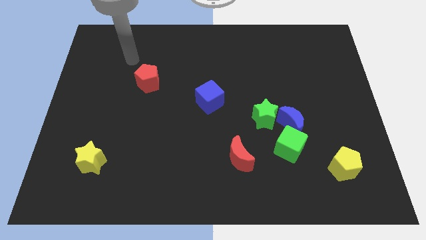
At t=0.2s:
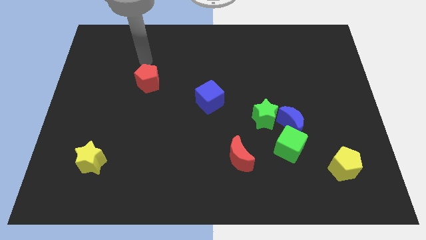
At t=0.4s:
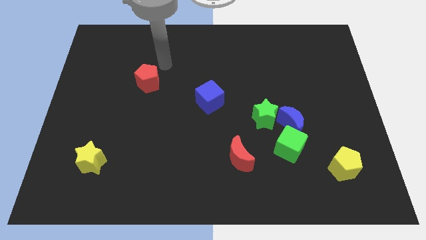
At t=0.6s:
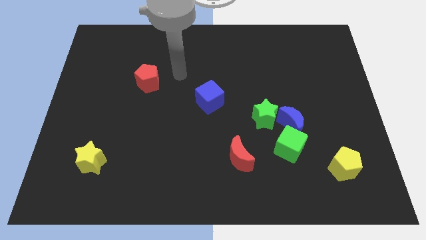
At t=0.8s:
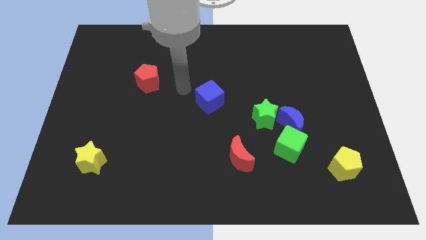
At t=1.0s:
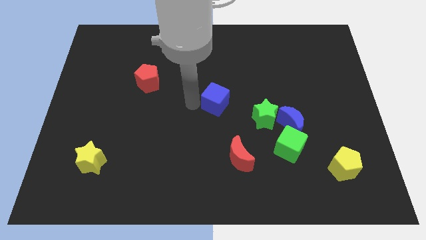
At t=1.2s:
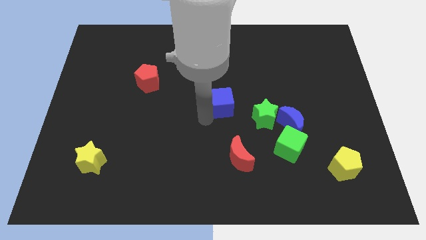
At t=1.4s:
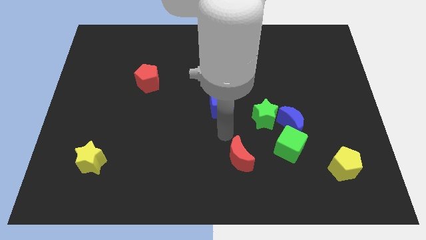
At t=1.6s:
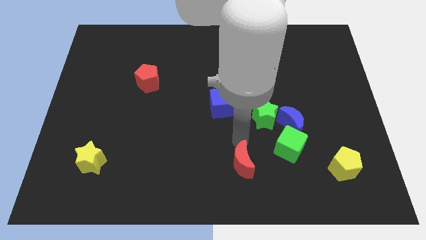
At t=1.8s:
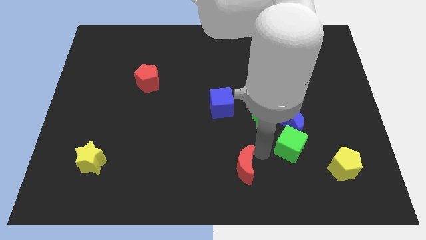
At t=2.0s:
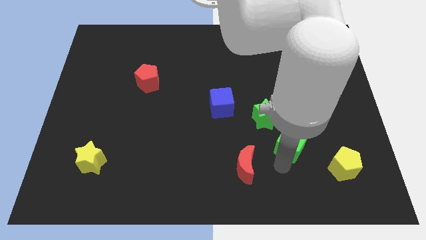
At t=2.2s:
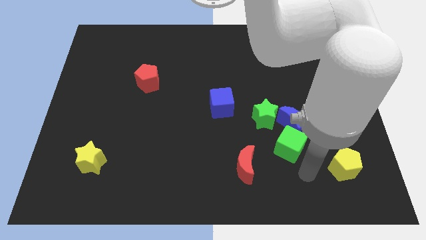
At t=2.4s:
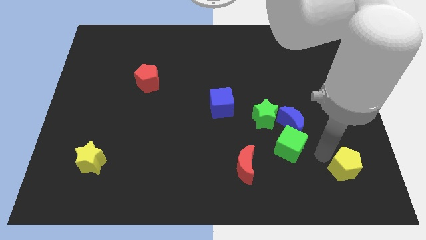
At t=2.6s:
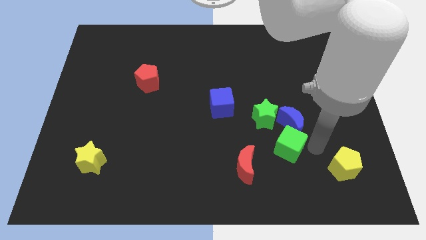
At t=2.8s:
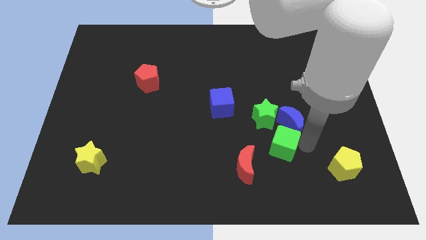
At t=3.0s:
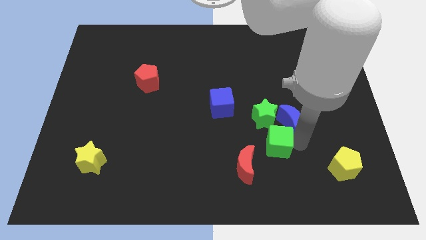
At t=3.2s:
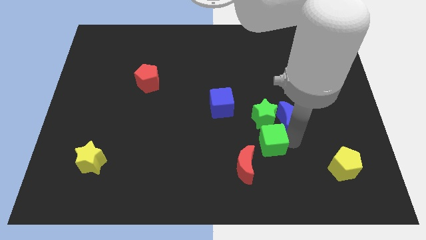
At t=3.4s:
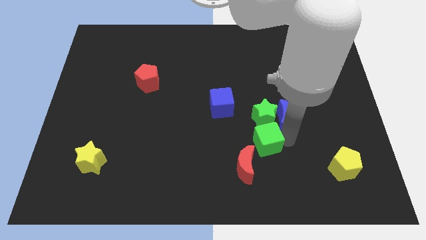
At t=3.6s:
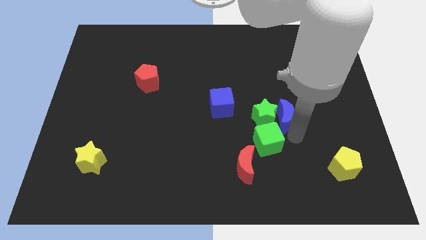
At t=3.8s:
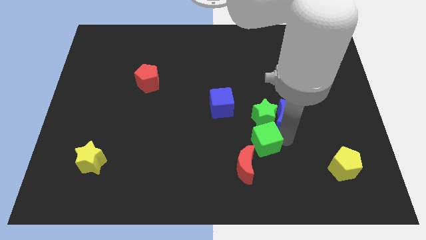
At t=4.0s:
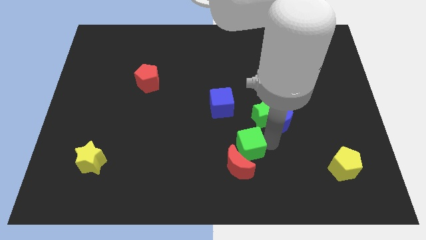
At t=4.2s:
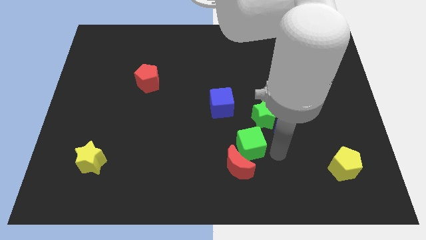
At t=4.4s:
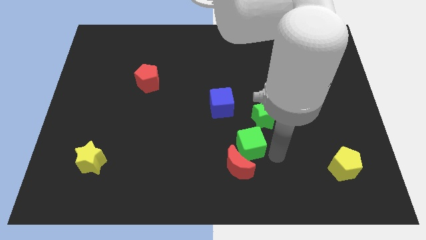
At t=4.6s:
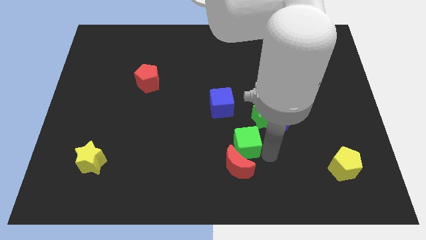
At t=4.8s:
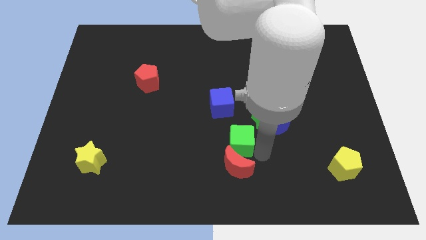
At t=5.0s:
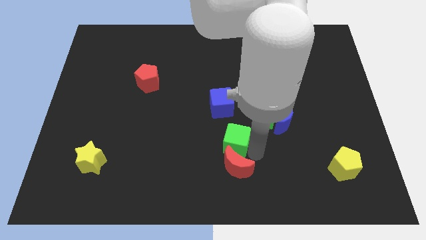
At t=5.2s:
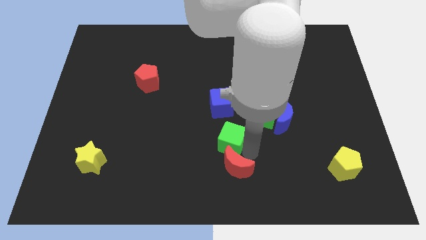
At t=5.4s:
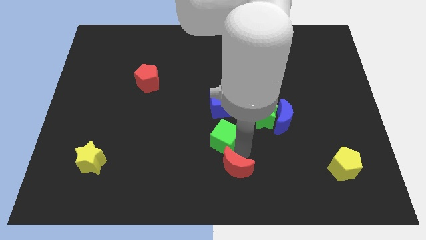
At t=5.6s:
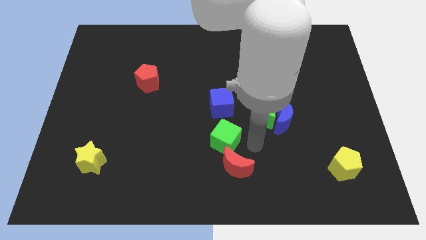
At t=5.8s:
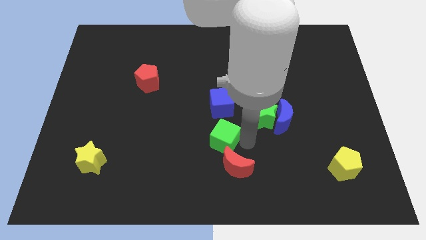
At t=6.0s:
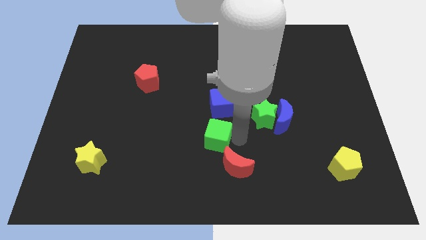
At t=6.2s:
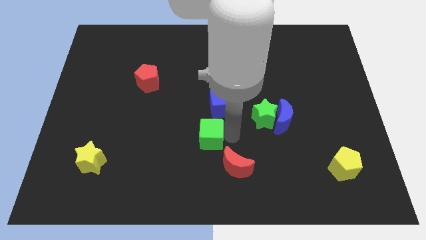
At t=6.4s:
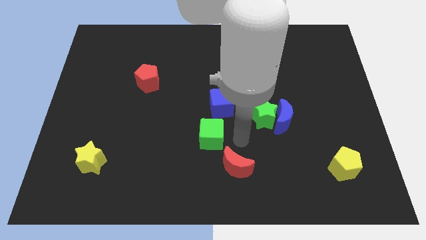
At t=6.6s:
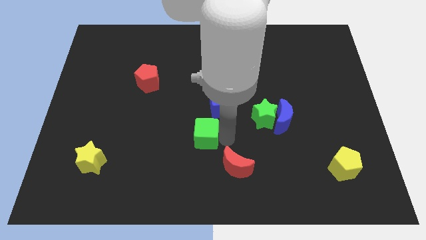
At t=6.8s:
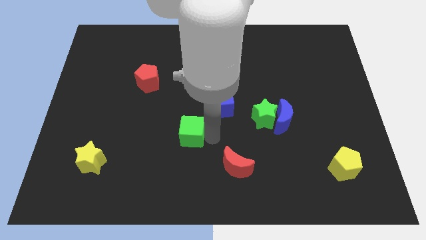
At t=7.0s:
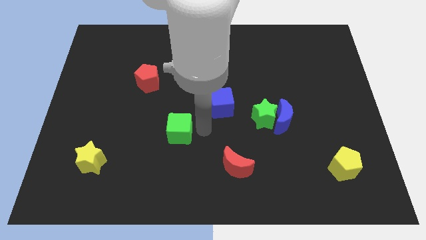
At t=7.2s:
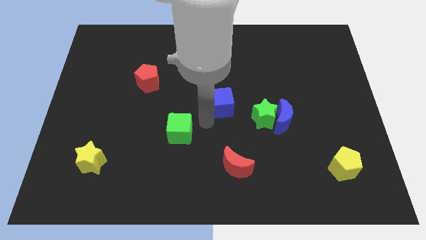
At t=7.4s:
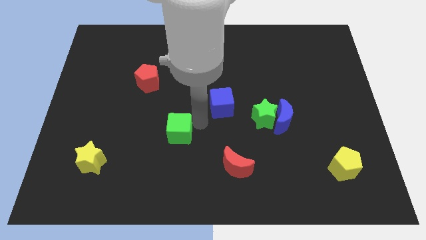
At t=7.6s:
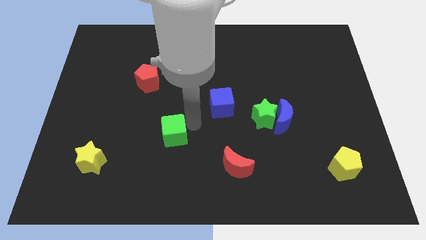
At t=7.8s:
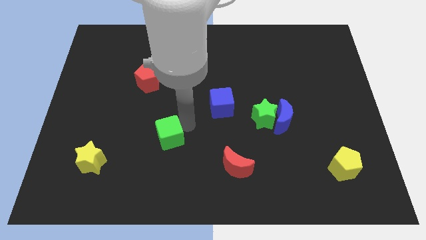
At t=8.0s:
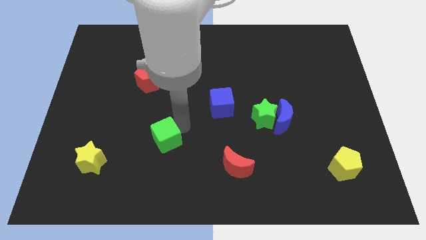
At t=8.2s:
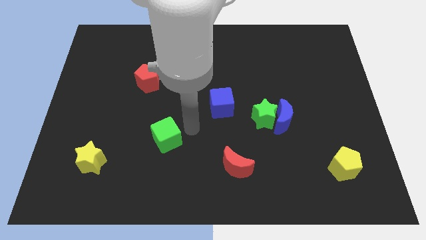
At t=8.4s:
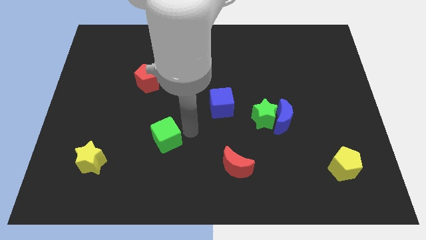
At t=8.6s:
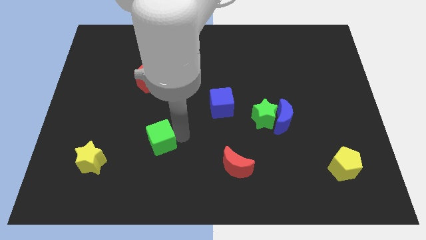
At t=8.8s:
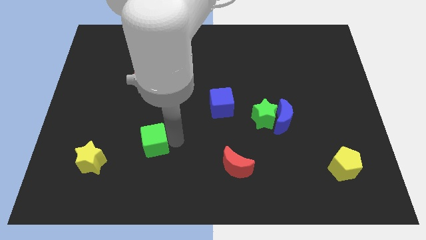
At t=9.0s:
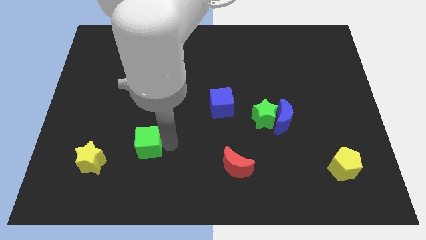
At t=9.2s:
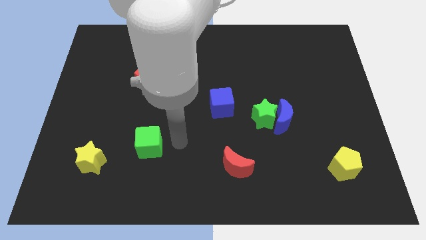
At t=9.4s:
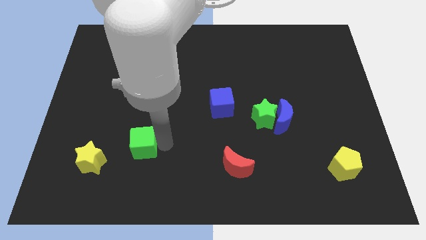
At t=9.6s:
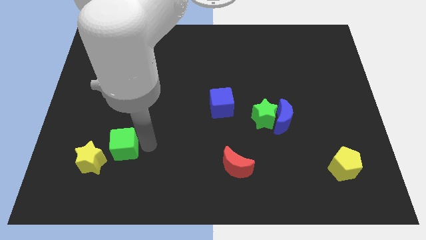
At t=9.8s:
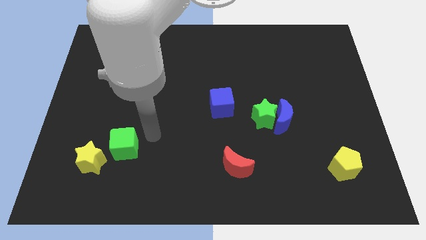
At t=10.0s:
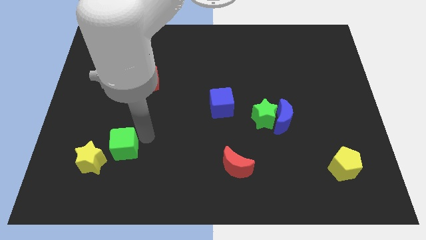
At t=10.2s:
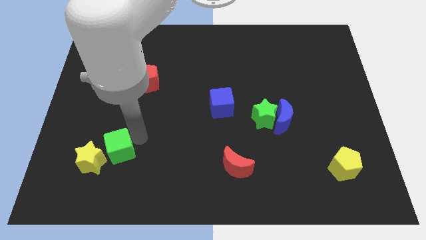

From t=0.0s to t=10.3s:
slide the green cube towards the yellow star

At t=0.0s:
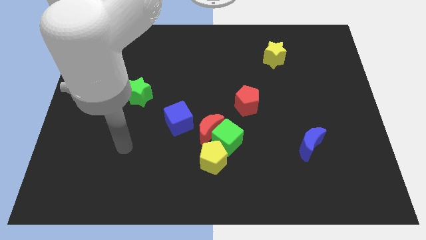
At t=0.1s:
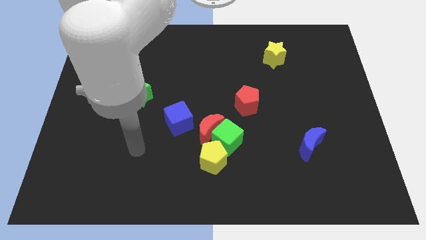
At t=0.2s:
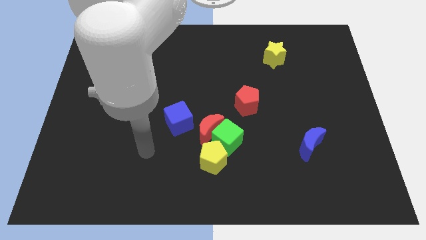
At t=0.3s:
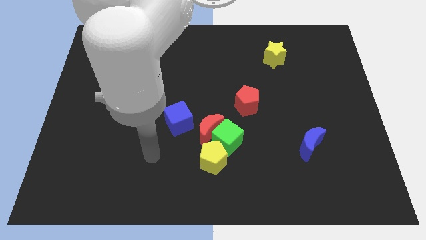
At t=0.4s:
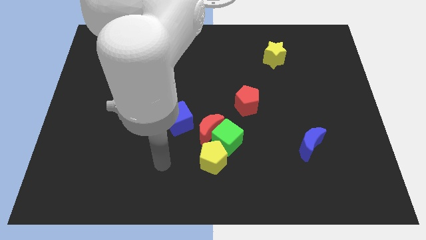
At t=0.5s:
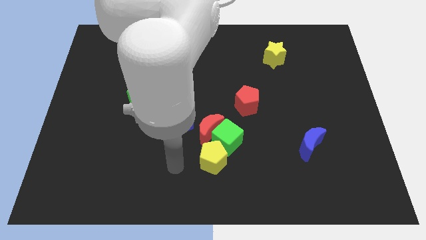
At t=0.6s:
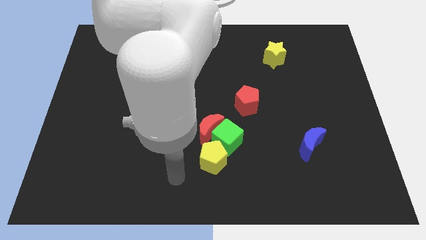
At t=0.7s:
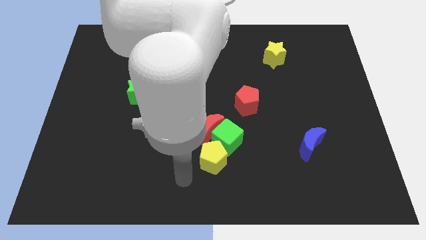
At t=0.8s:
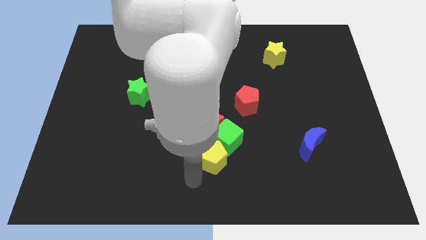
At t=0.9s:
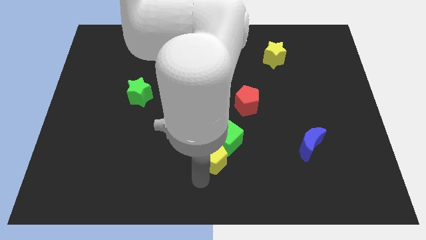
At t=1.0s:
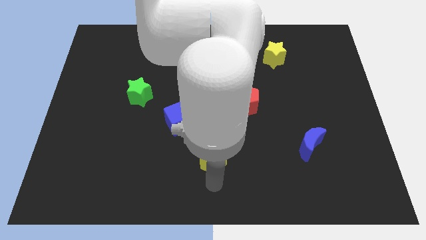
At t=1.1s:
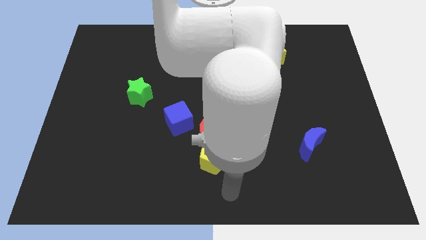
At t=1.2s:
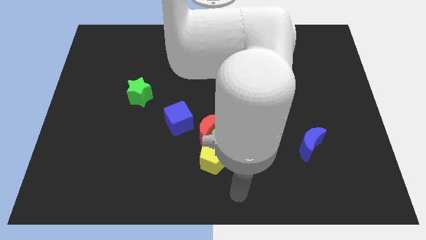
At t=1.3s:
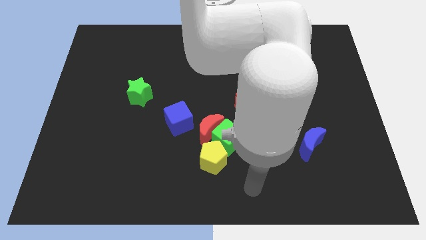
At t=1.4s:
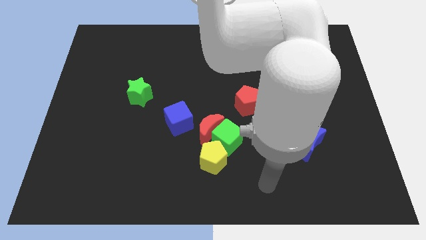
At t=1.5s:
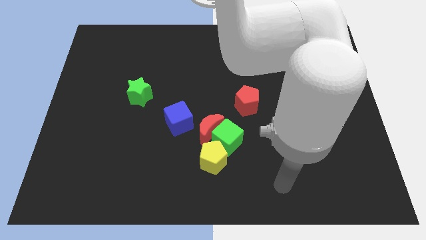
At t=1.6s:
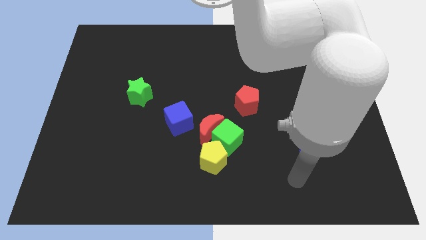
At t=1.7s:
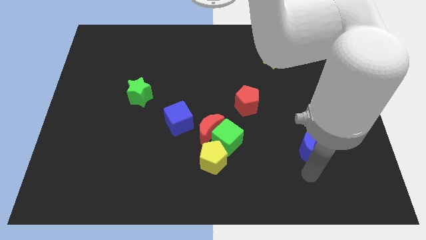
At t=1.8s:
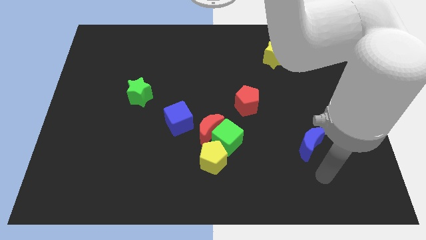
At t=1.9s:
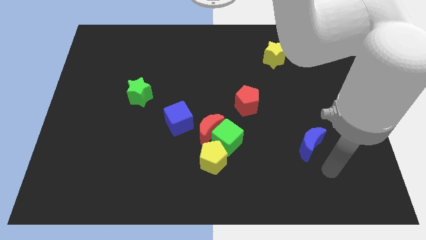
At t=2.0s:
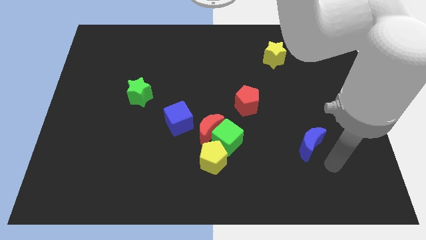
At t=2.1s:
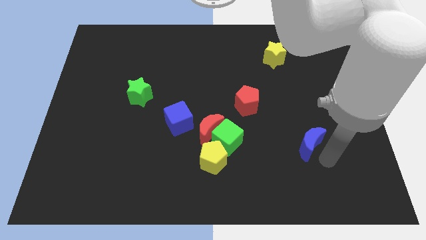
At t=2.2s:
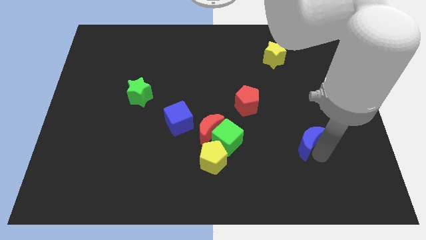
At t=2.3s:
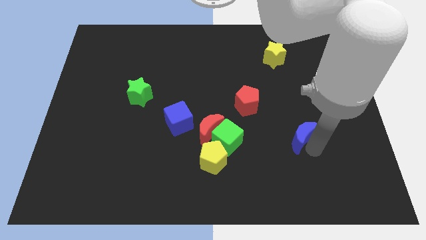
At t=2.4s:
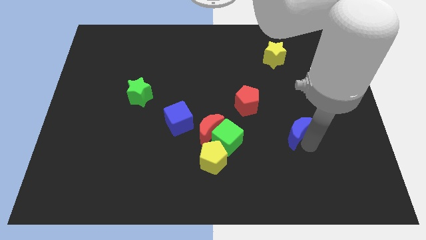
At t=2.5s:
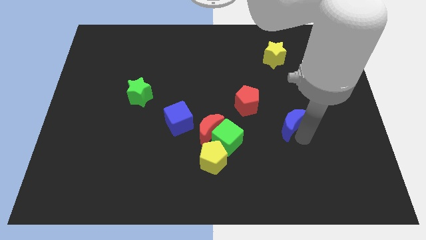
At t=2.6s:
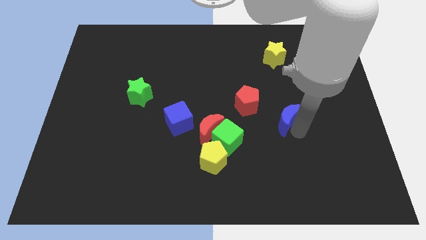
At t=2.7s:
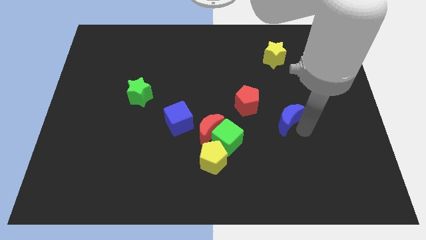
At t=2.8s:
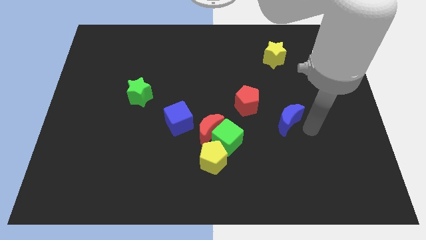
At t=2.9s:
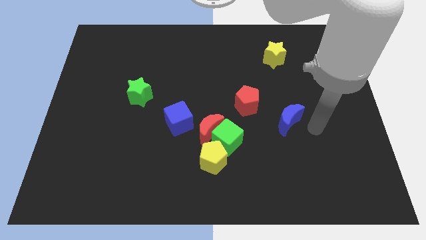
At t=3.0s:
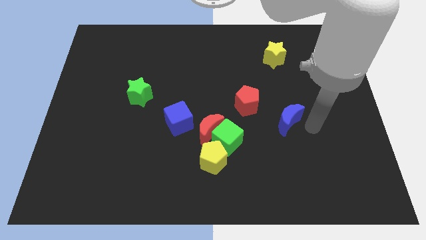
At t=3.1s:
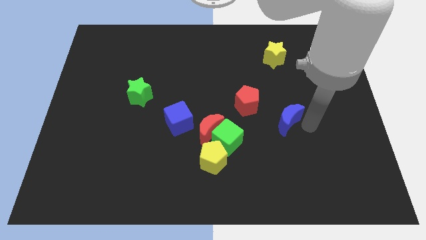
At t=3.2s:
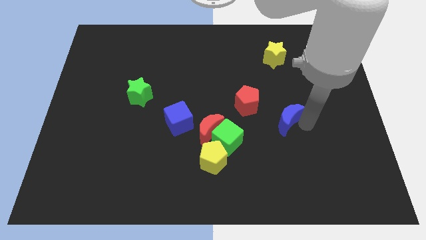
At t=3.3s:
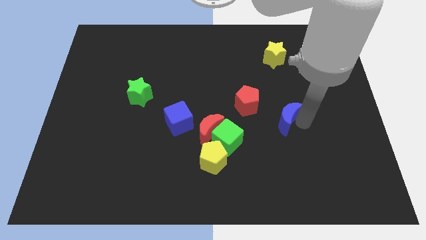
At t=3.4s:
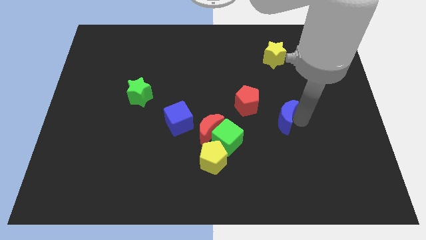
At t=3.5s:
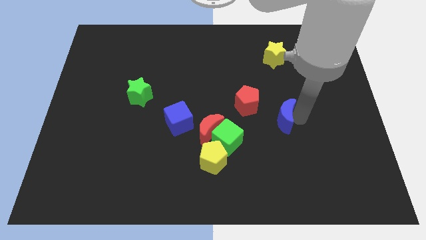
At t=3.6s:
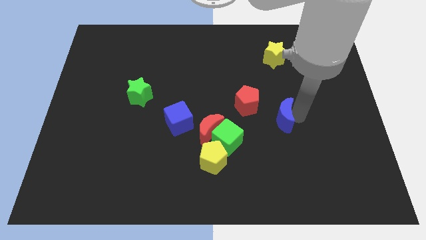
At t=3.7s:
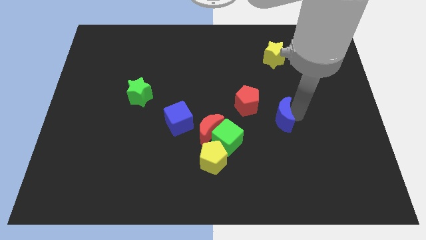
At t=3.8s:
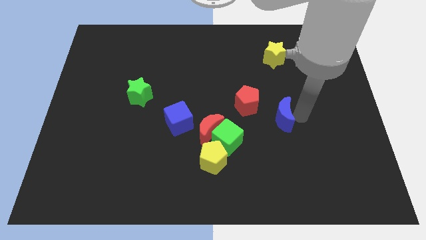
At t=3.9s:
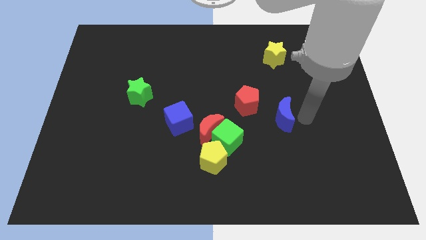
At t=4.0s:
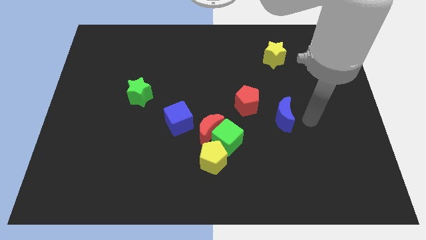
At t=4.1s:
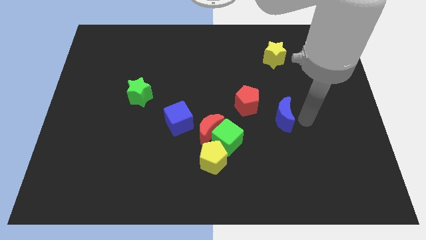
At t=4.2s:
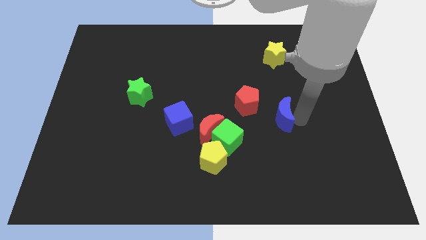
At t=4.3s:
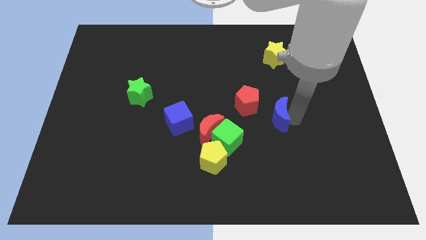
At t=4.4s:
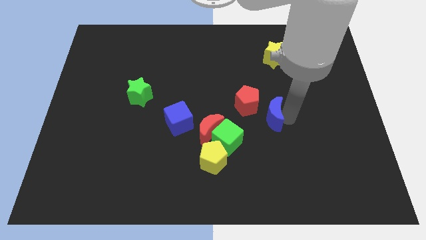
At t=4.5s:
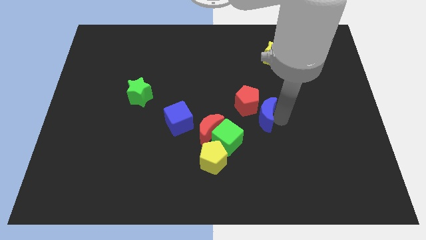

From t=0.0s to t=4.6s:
put the blue moon close to the red pentagon
